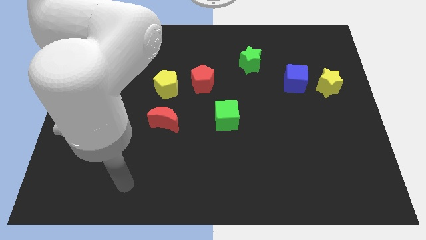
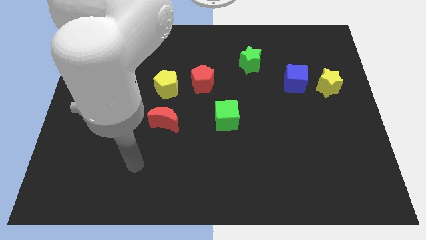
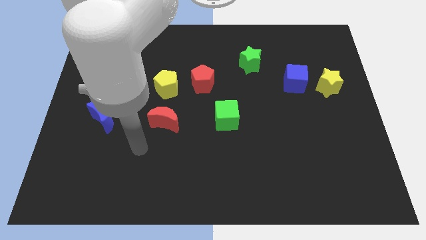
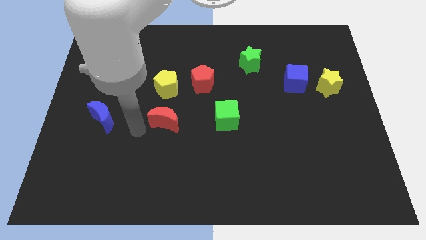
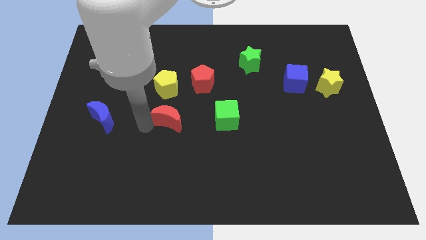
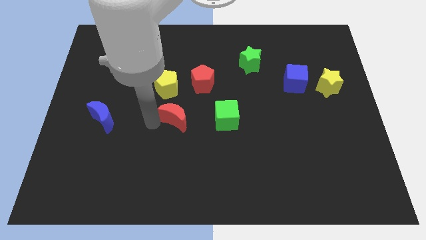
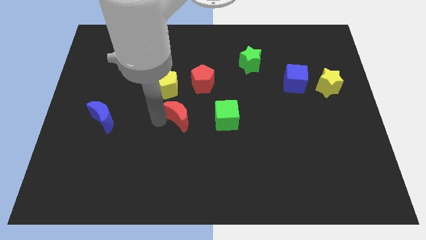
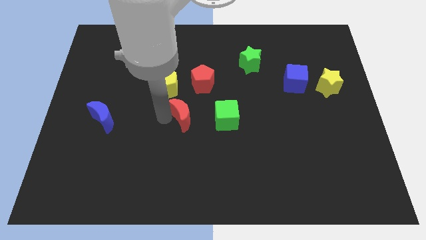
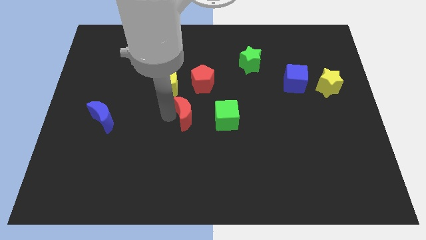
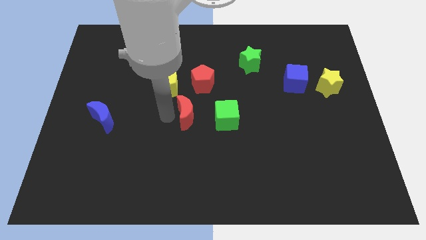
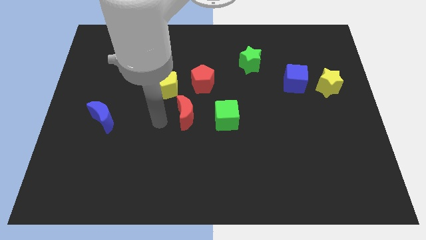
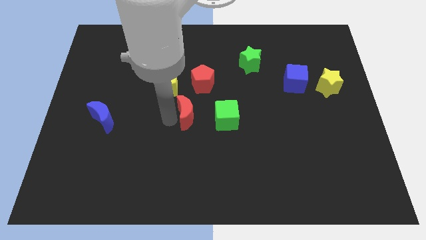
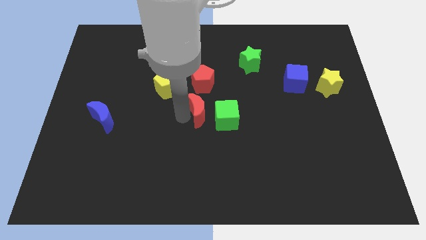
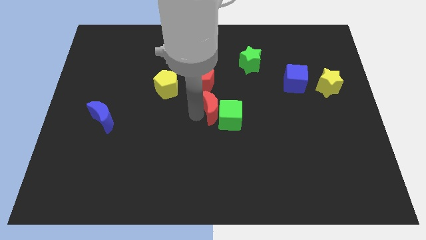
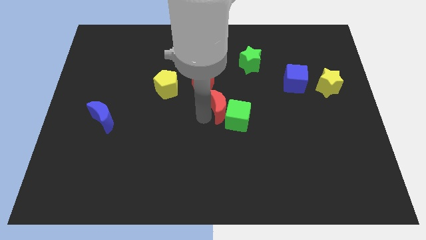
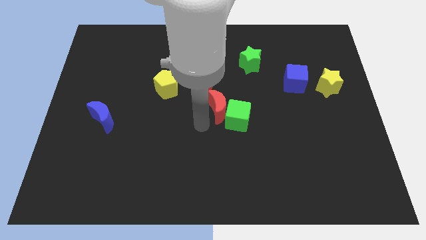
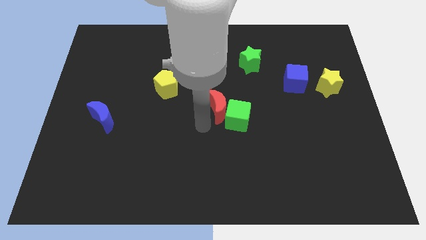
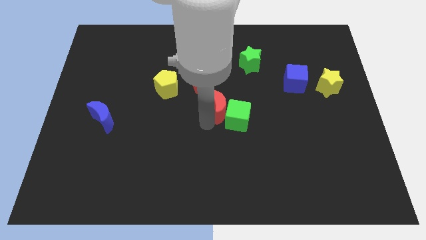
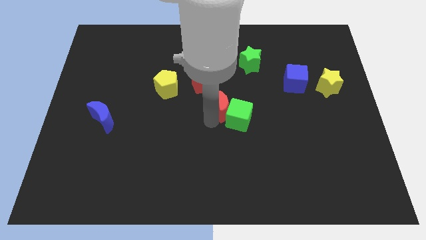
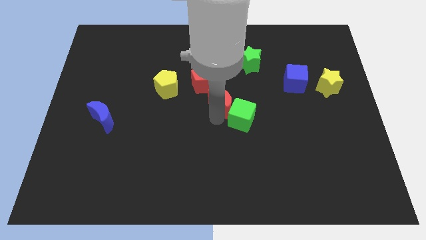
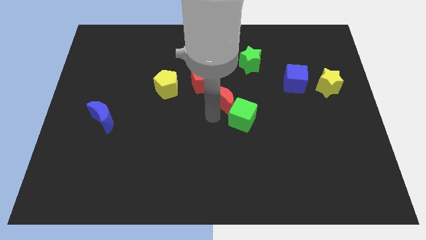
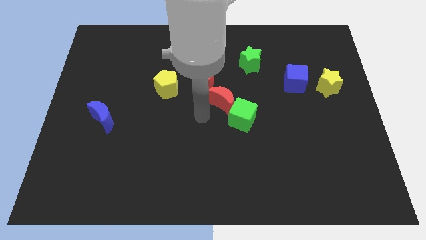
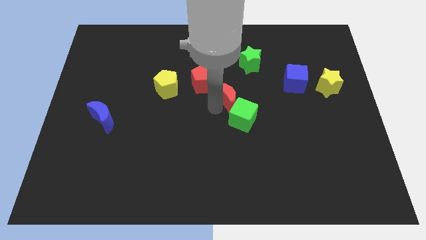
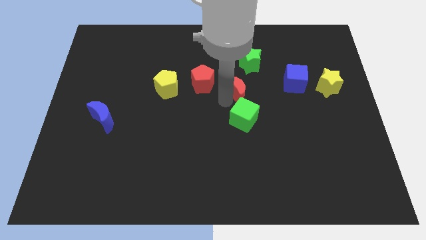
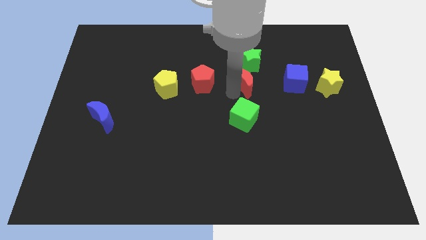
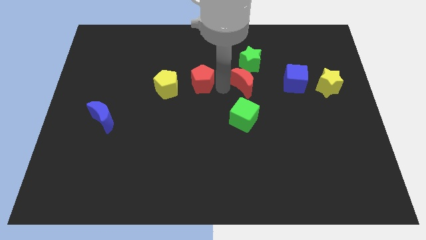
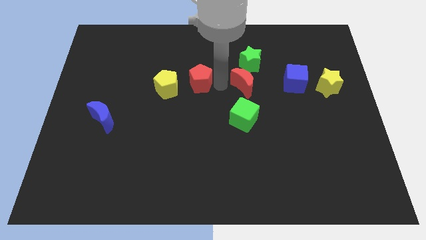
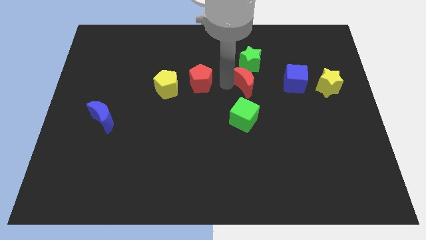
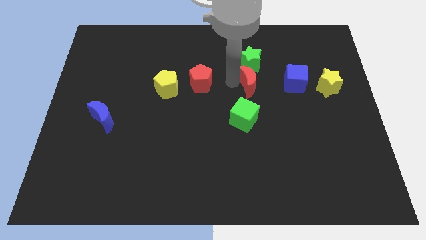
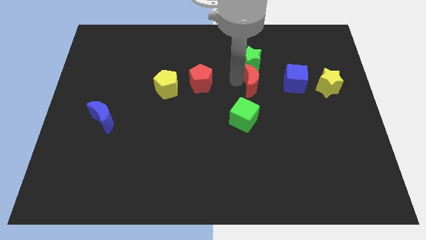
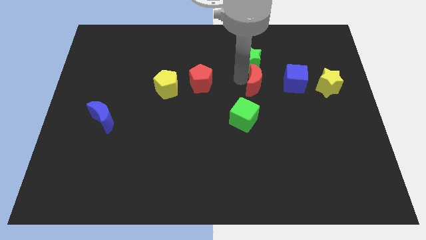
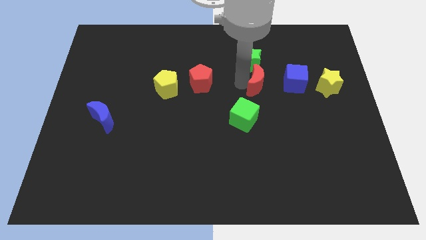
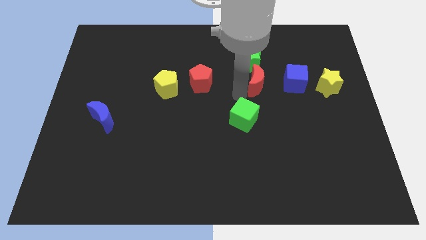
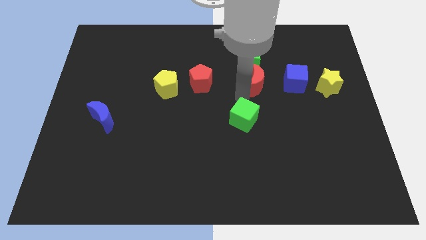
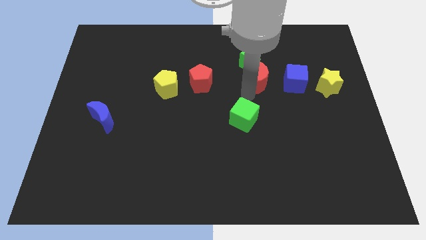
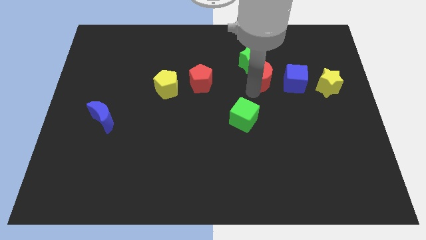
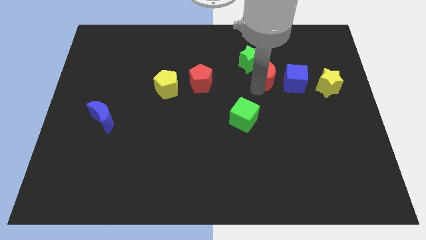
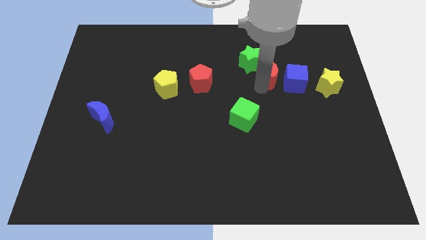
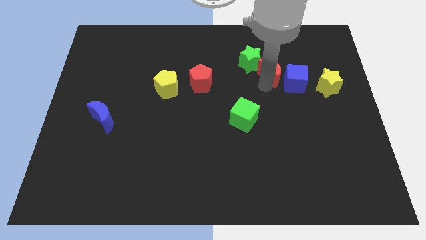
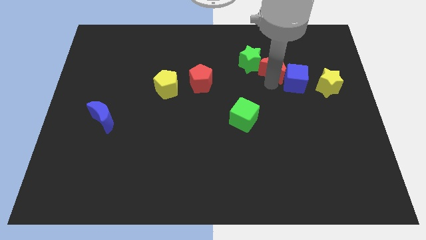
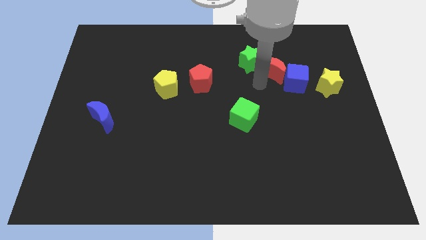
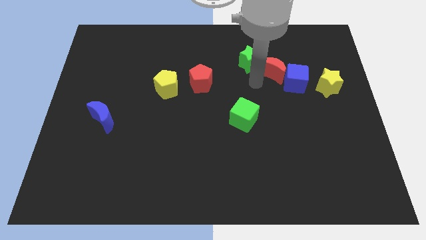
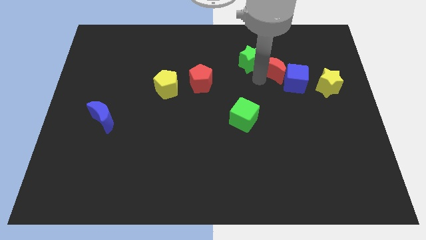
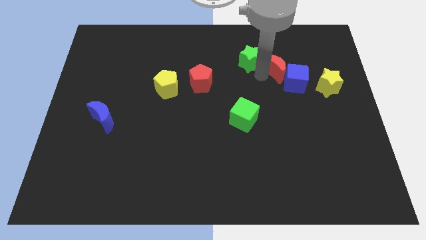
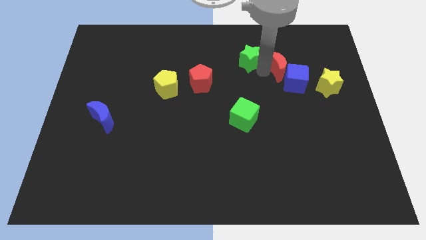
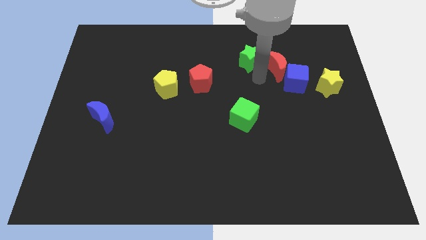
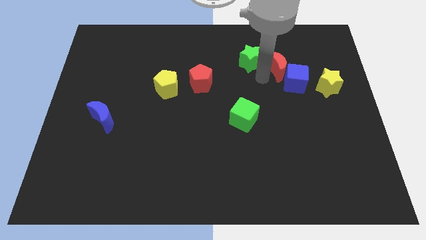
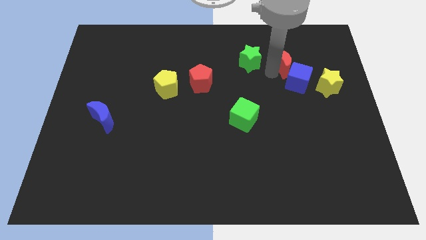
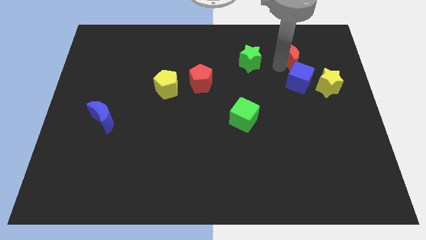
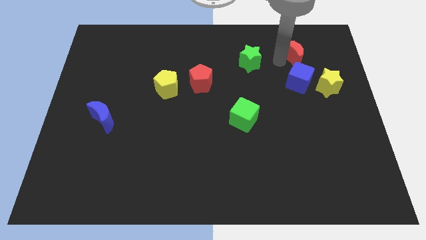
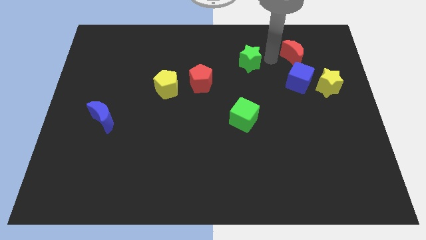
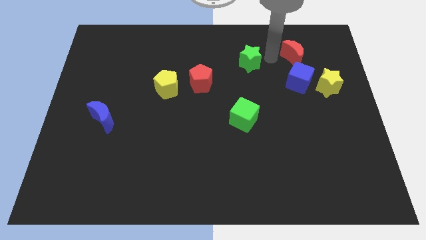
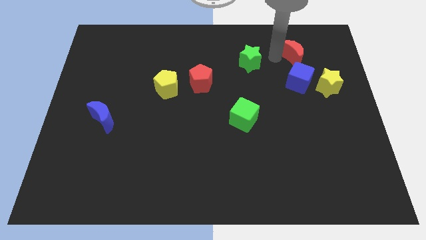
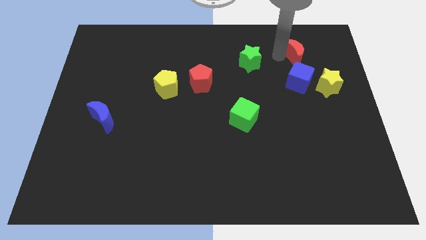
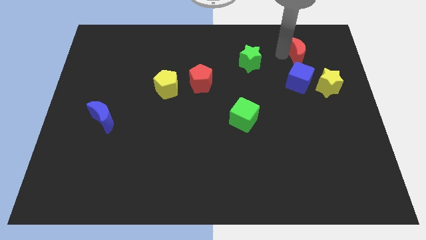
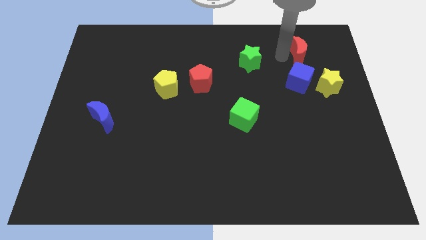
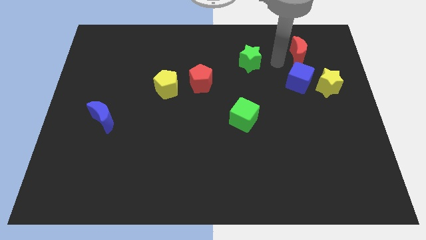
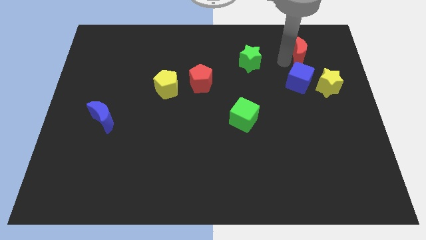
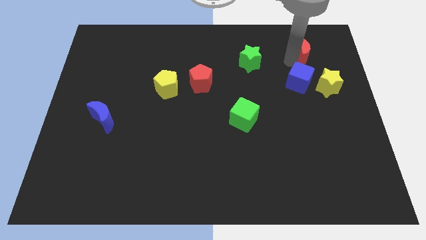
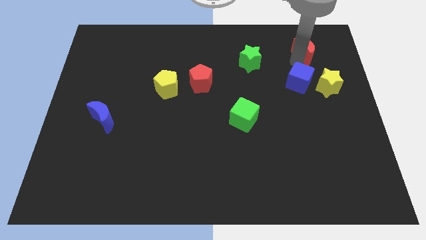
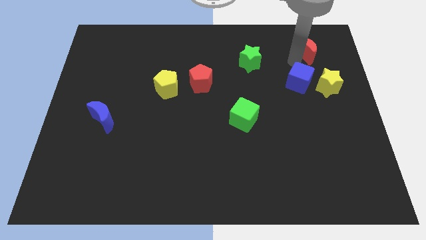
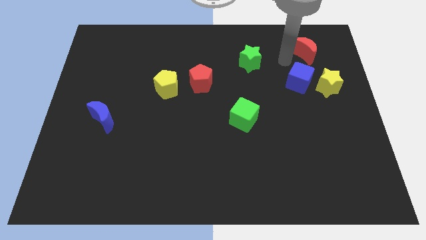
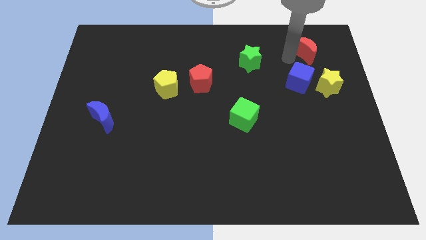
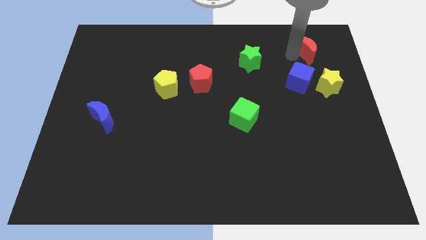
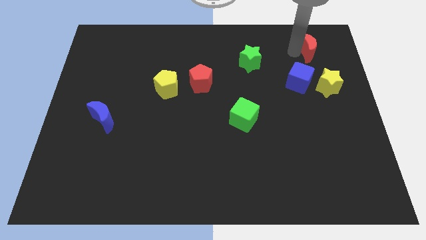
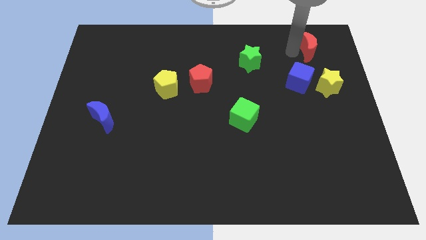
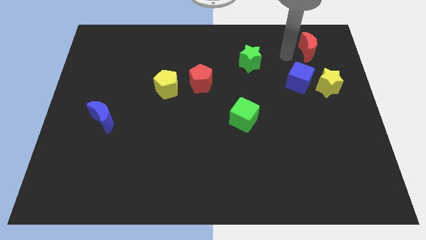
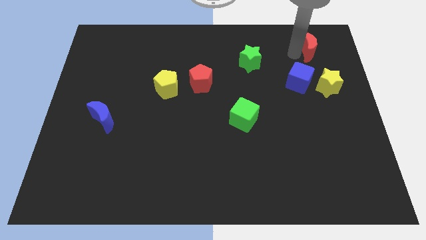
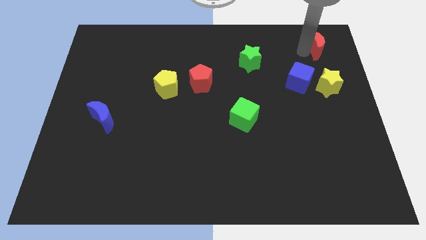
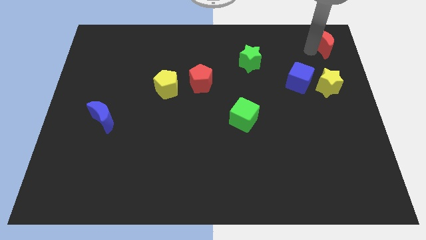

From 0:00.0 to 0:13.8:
push the red moon to the top right

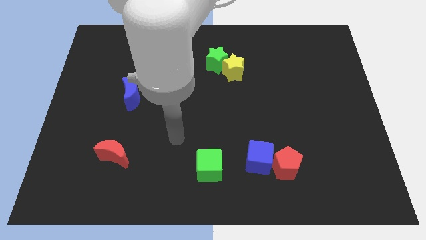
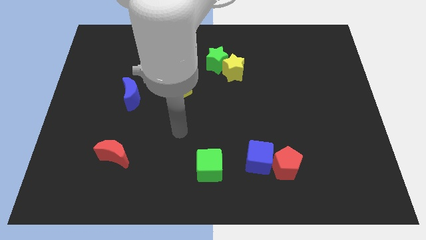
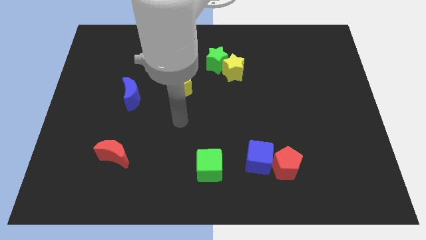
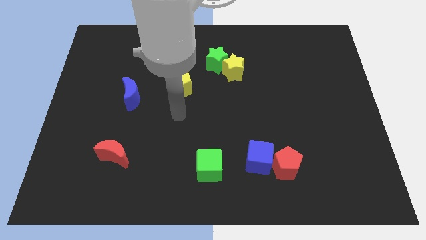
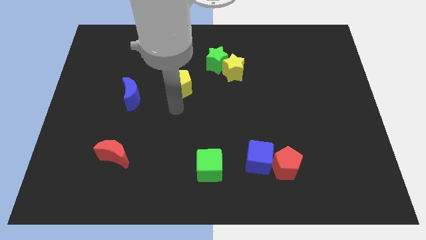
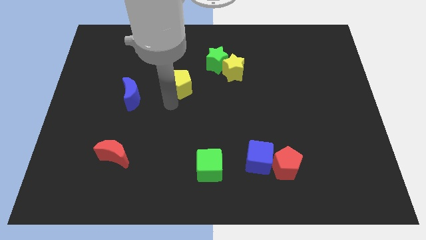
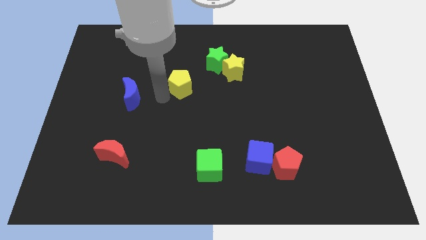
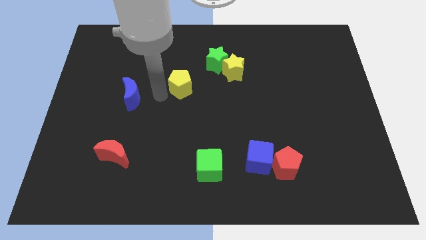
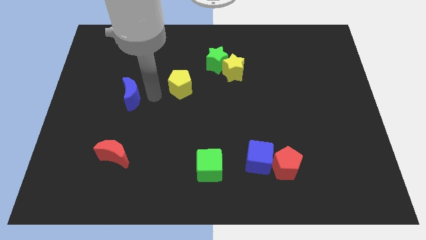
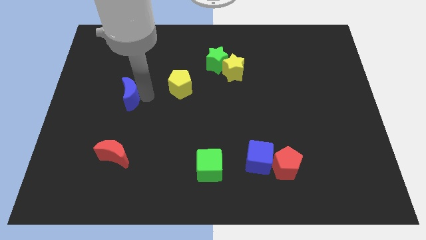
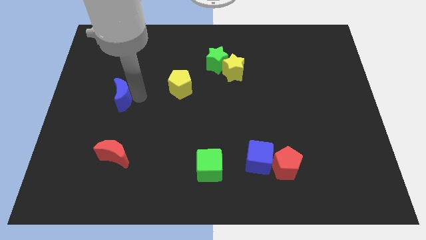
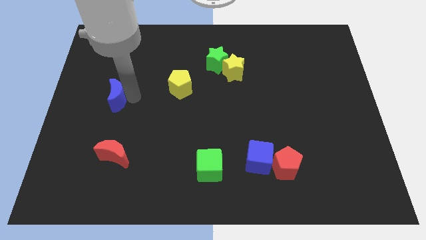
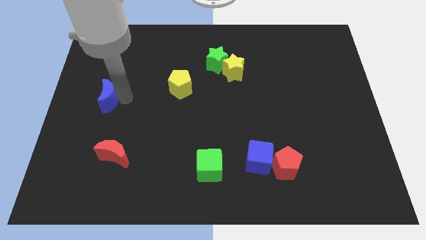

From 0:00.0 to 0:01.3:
move the blue moon to the center left
